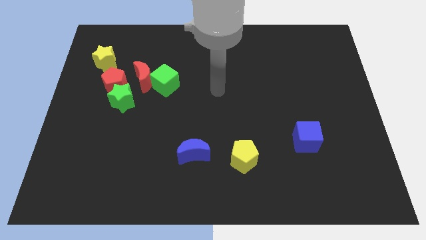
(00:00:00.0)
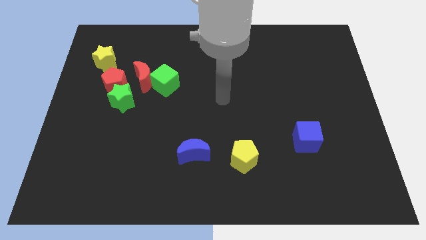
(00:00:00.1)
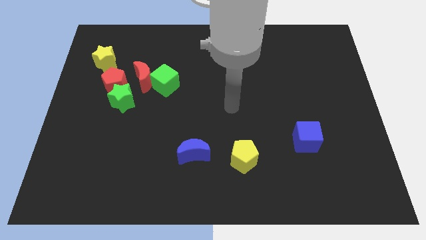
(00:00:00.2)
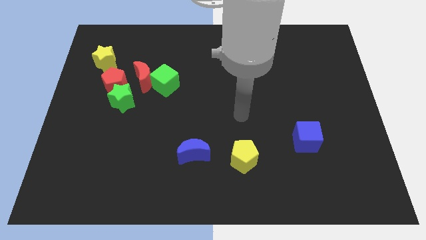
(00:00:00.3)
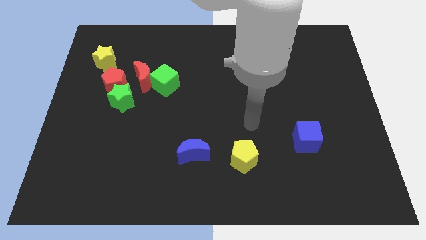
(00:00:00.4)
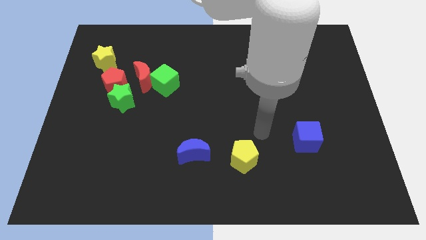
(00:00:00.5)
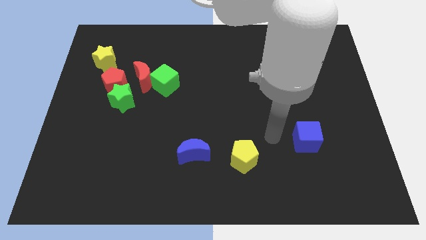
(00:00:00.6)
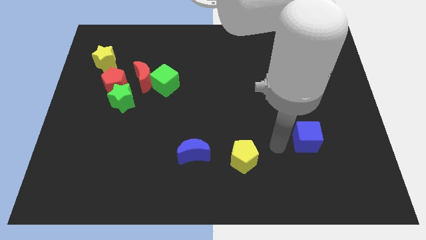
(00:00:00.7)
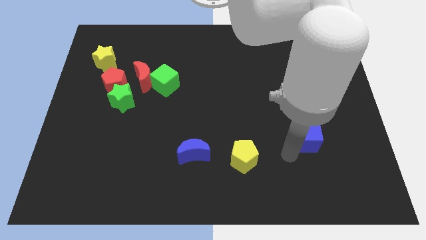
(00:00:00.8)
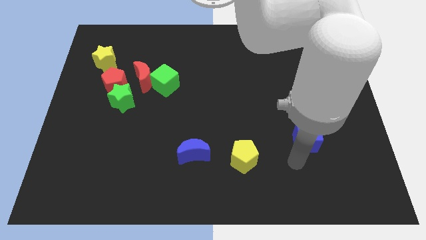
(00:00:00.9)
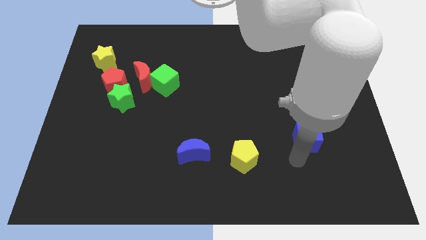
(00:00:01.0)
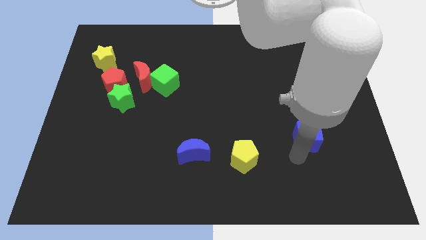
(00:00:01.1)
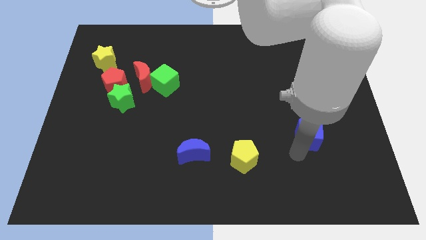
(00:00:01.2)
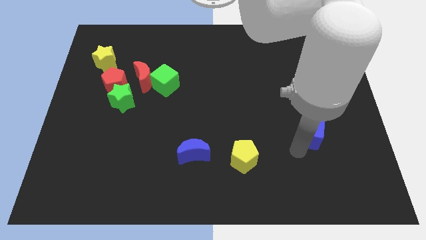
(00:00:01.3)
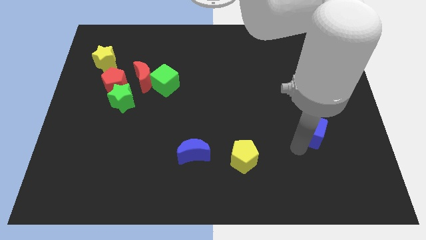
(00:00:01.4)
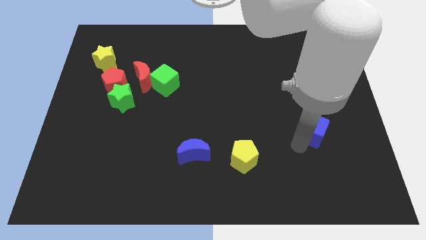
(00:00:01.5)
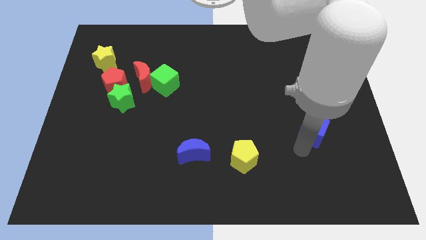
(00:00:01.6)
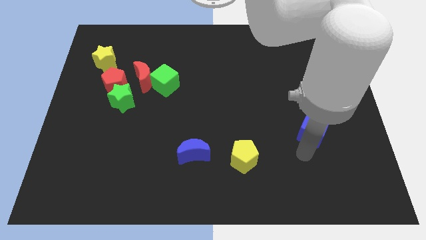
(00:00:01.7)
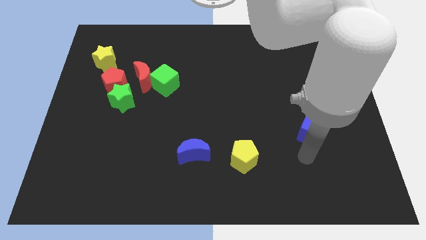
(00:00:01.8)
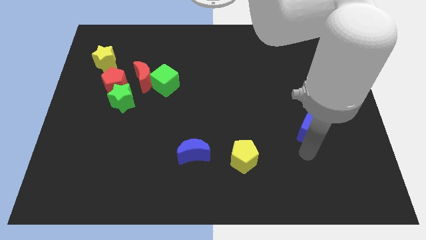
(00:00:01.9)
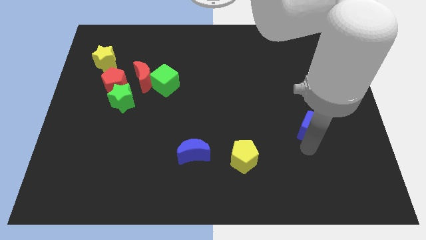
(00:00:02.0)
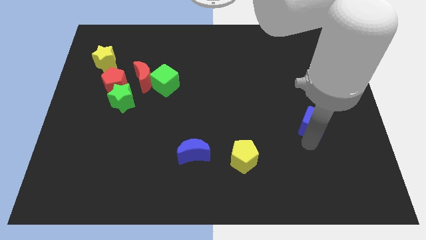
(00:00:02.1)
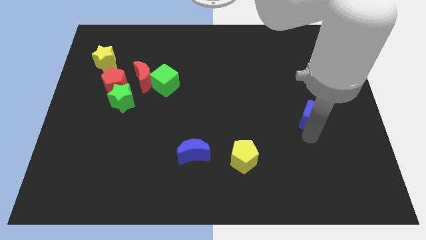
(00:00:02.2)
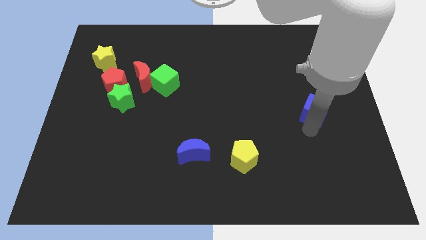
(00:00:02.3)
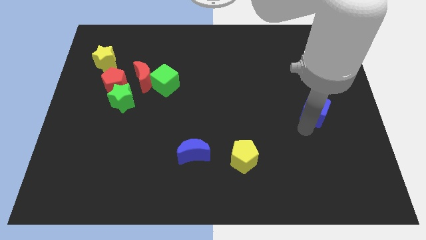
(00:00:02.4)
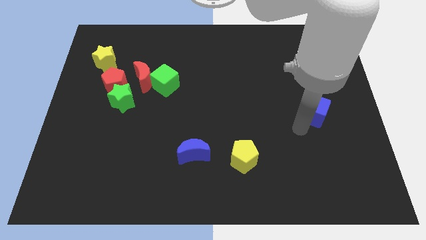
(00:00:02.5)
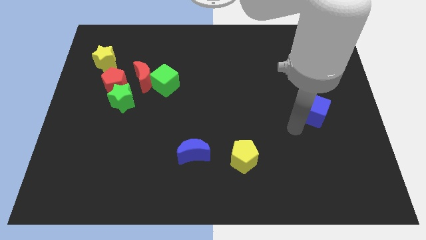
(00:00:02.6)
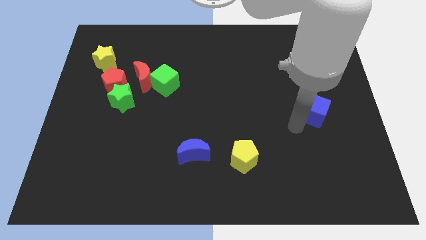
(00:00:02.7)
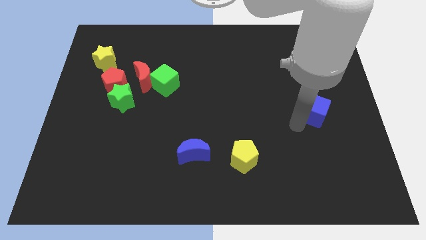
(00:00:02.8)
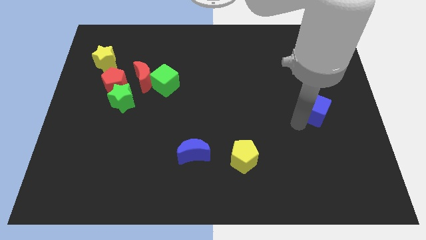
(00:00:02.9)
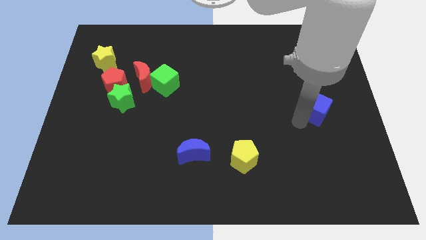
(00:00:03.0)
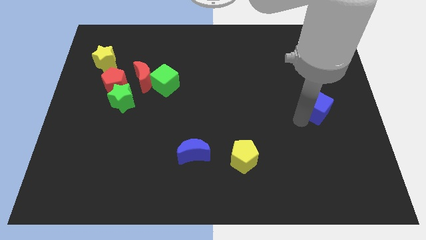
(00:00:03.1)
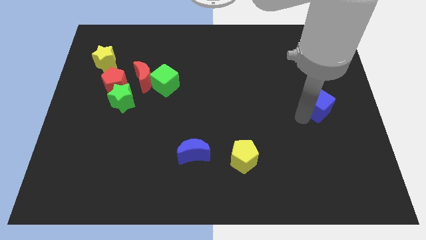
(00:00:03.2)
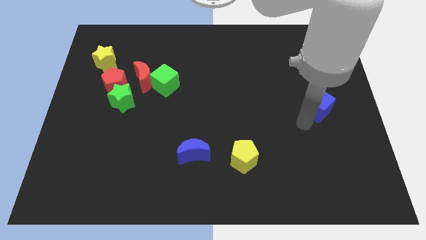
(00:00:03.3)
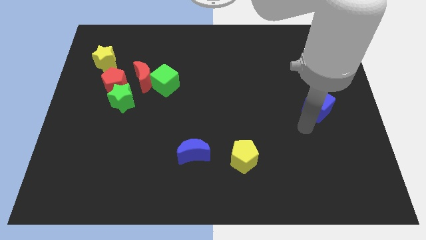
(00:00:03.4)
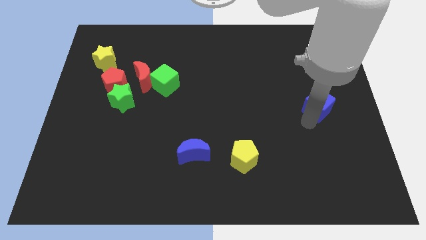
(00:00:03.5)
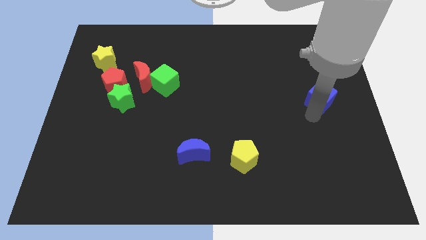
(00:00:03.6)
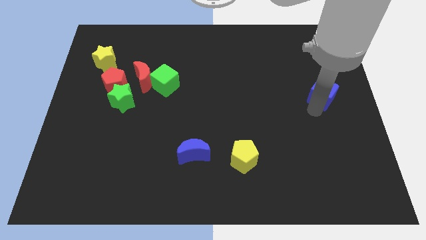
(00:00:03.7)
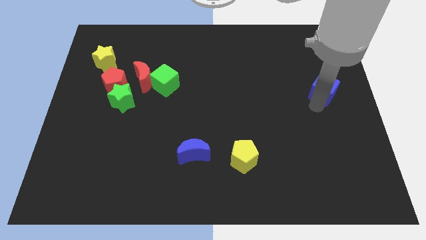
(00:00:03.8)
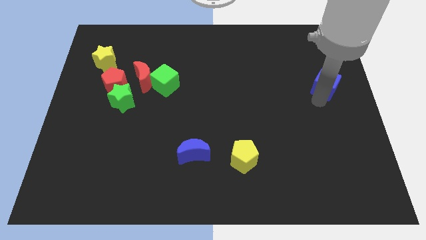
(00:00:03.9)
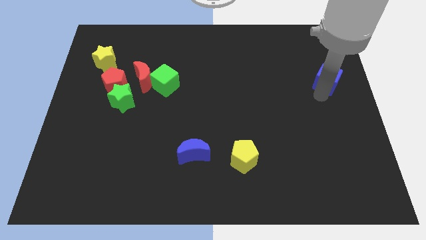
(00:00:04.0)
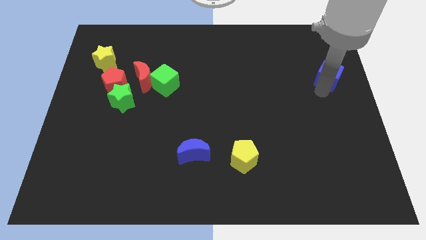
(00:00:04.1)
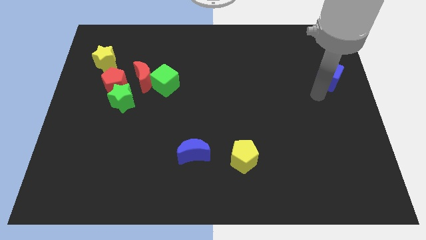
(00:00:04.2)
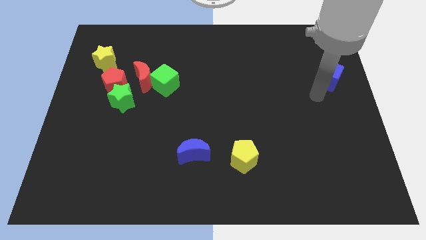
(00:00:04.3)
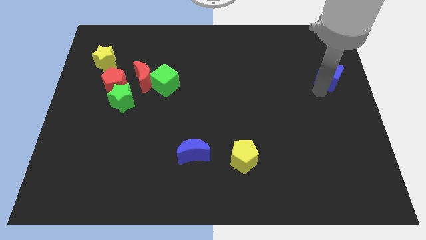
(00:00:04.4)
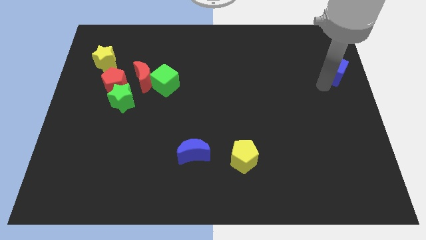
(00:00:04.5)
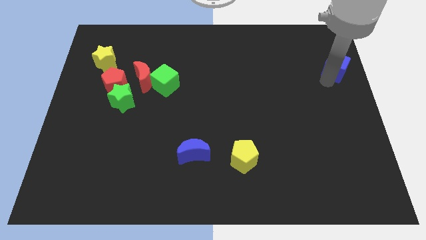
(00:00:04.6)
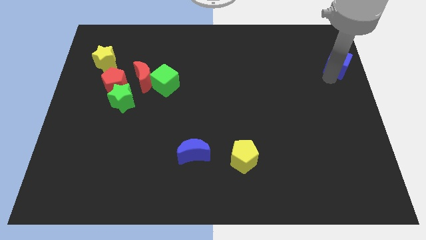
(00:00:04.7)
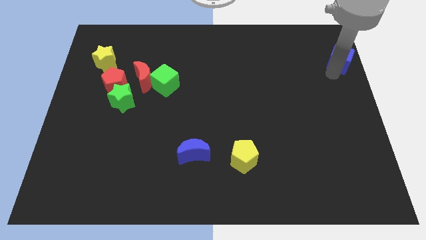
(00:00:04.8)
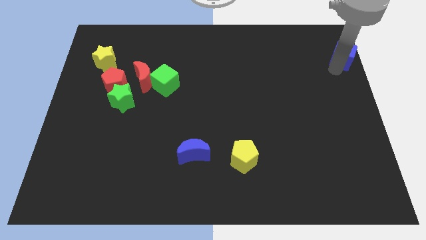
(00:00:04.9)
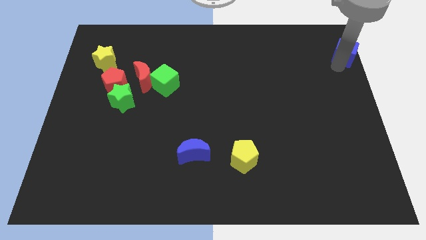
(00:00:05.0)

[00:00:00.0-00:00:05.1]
put the blue cube to the top right
